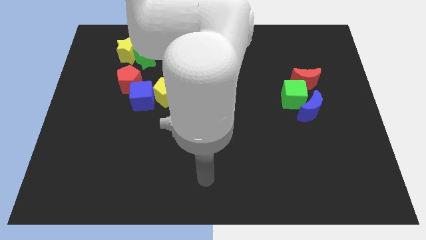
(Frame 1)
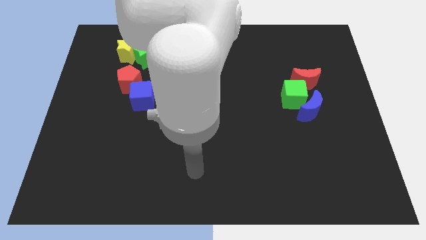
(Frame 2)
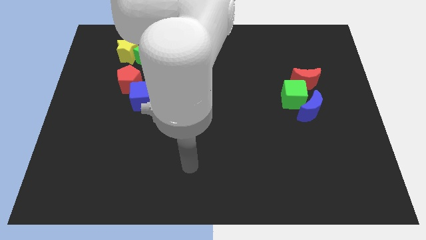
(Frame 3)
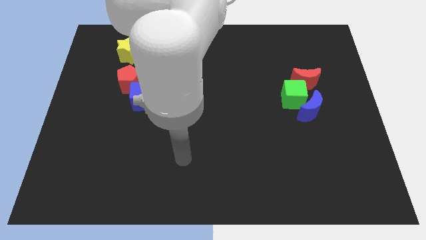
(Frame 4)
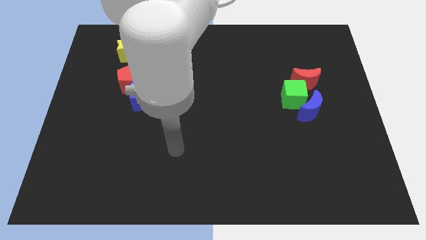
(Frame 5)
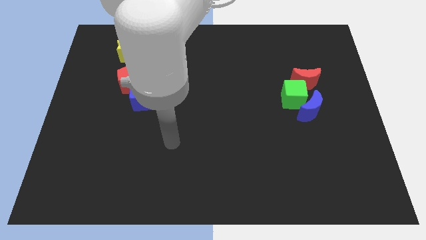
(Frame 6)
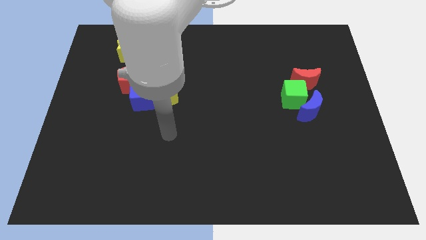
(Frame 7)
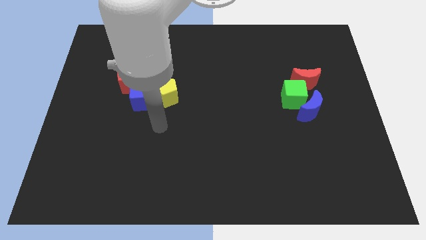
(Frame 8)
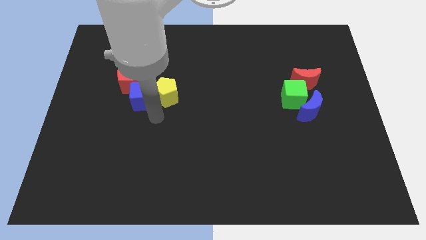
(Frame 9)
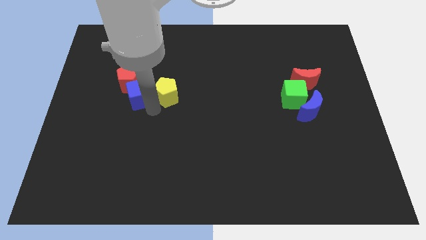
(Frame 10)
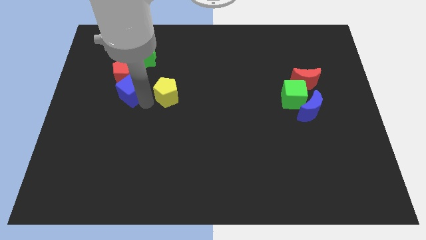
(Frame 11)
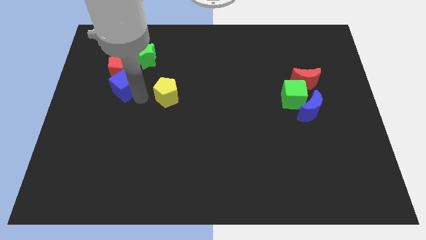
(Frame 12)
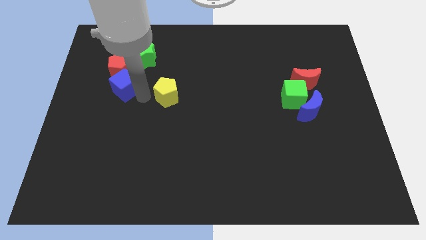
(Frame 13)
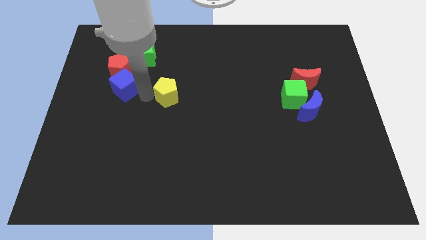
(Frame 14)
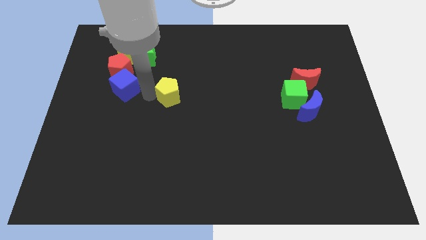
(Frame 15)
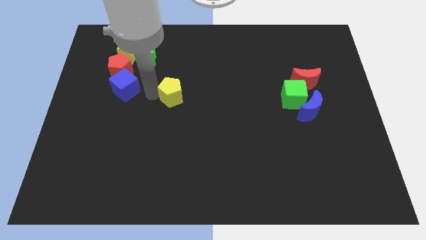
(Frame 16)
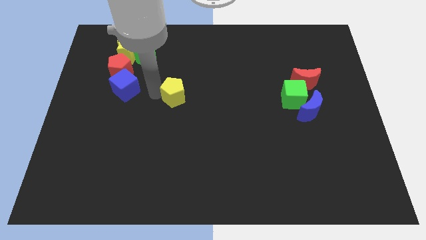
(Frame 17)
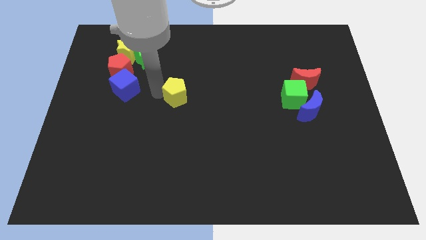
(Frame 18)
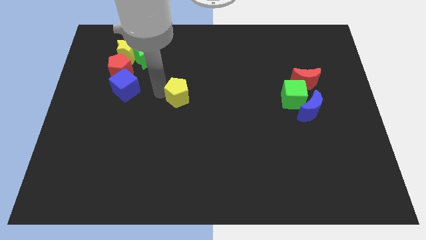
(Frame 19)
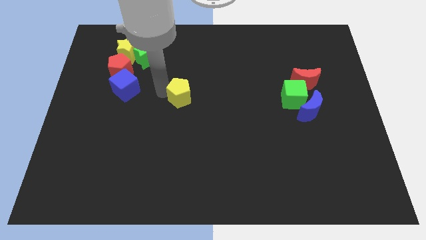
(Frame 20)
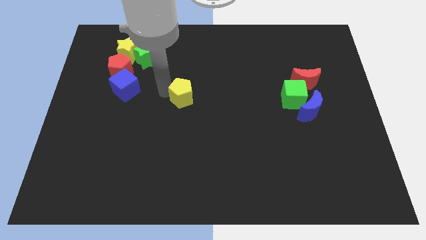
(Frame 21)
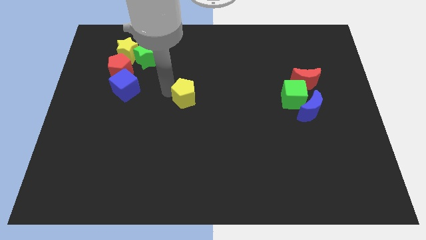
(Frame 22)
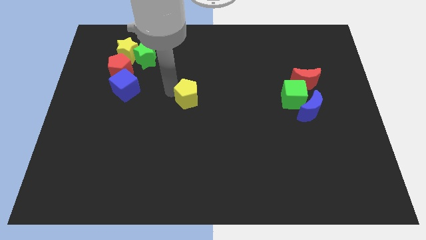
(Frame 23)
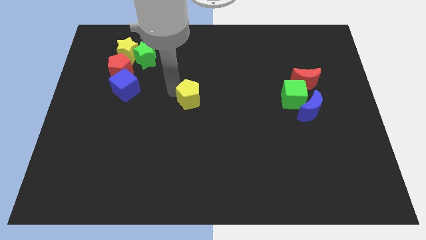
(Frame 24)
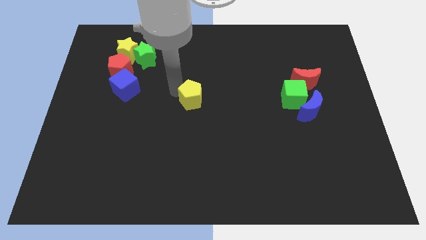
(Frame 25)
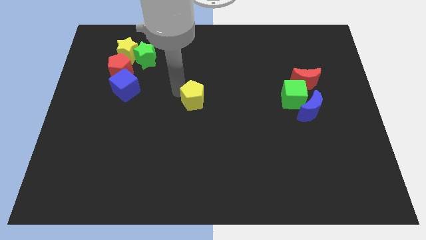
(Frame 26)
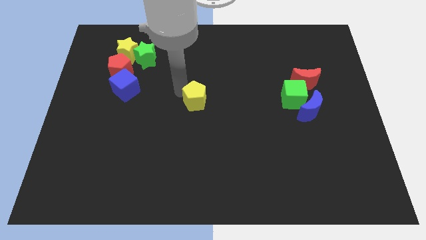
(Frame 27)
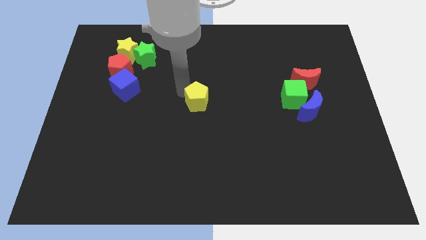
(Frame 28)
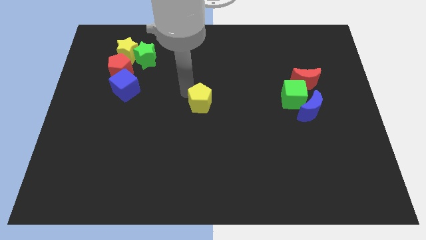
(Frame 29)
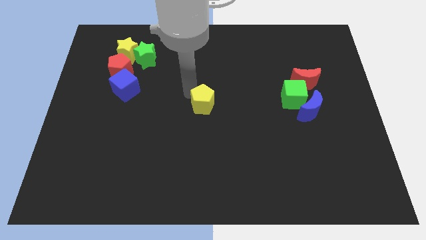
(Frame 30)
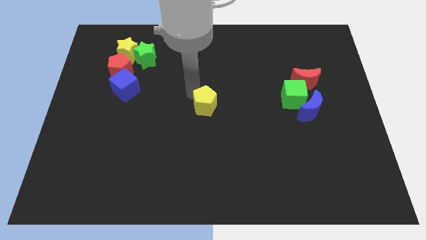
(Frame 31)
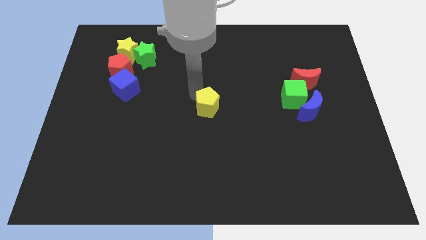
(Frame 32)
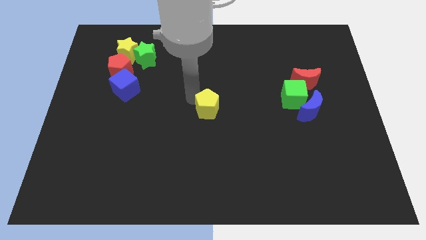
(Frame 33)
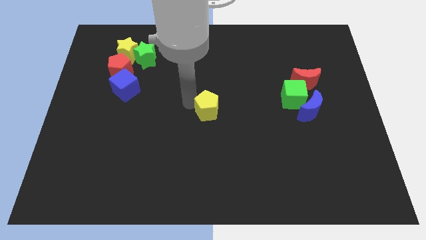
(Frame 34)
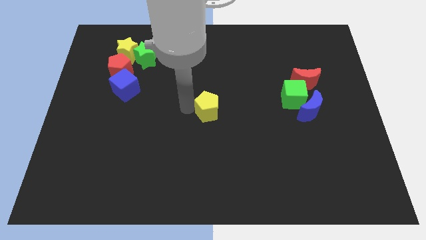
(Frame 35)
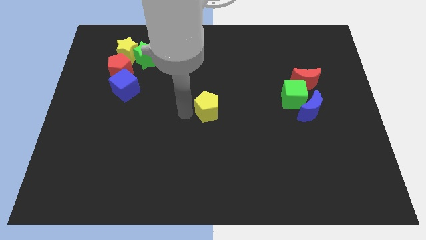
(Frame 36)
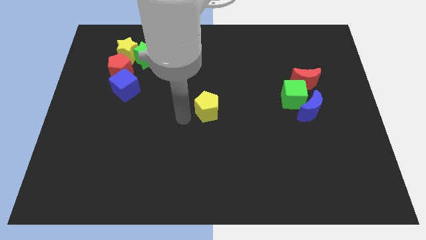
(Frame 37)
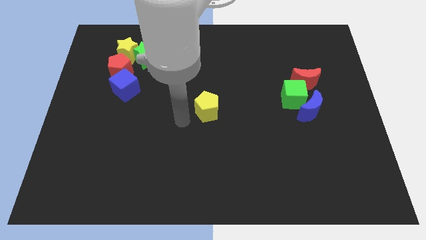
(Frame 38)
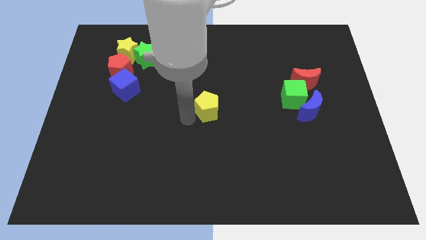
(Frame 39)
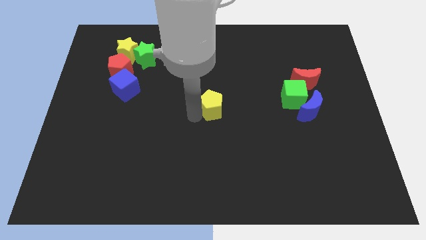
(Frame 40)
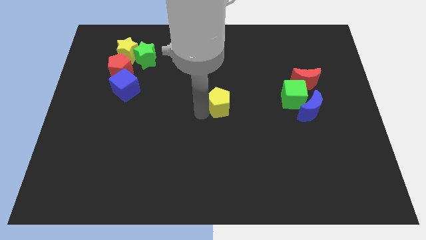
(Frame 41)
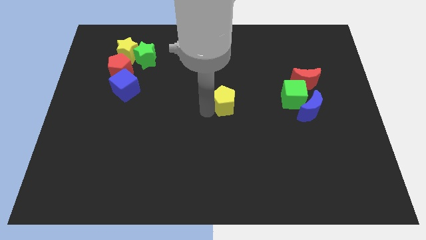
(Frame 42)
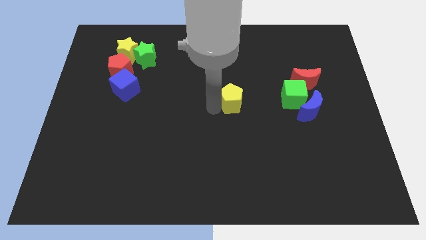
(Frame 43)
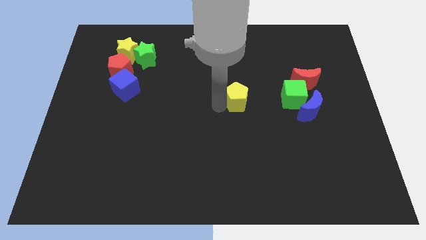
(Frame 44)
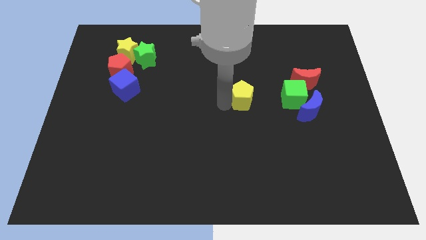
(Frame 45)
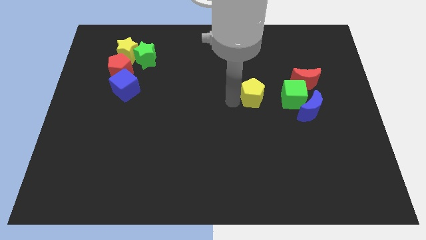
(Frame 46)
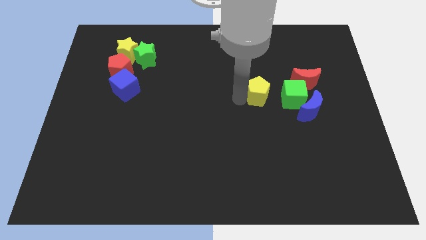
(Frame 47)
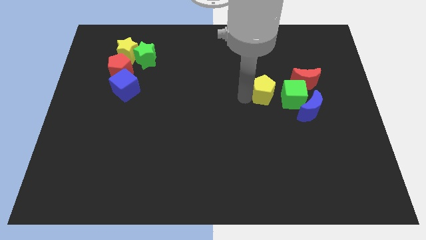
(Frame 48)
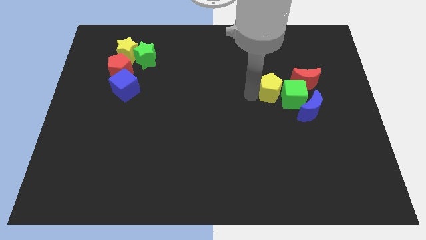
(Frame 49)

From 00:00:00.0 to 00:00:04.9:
move the yellow pentagon next to the green cube

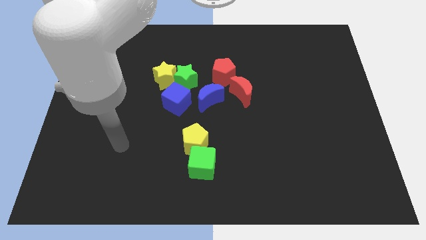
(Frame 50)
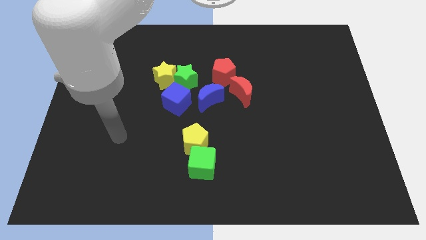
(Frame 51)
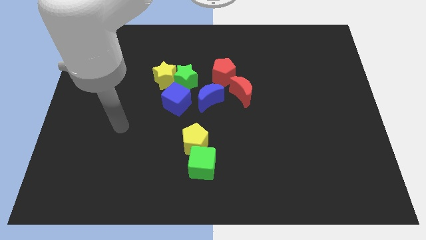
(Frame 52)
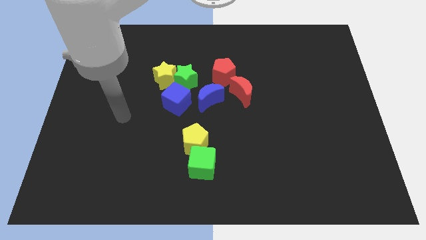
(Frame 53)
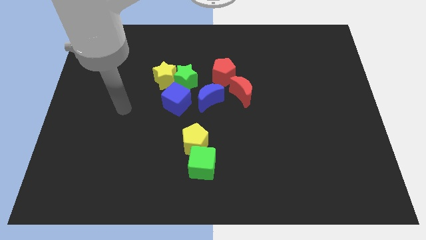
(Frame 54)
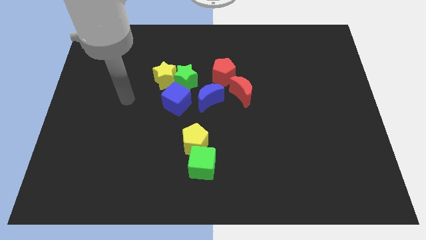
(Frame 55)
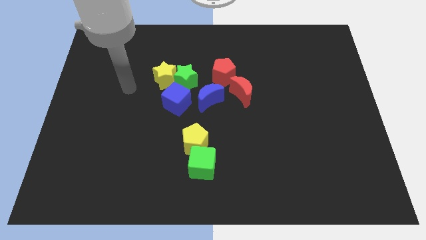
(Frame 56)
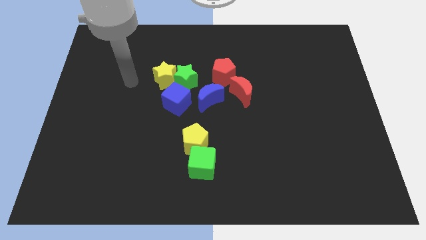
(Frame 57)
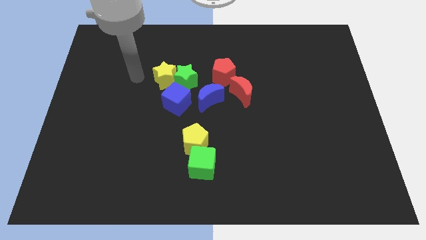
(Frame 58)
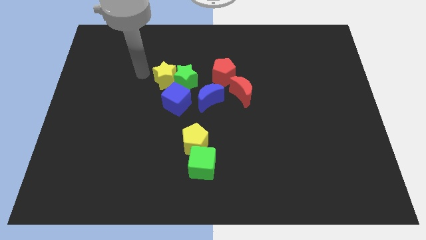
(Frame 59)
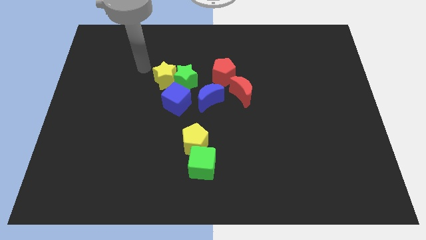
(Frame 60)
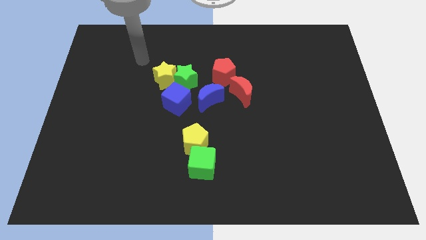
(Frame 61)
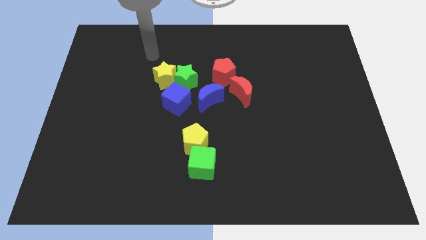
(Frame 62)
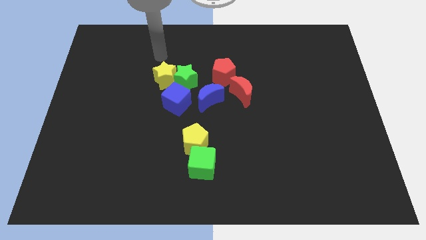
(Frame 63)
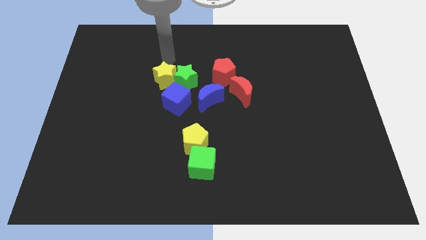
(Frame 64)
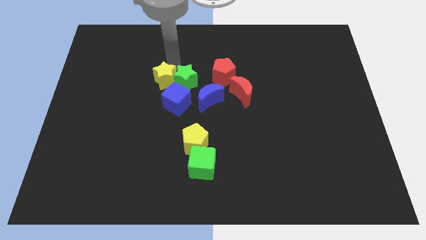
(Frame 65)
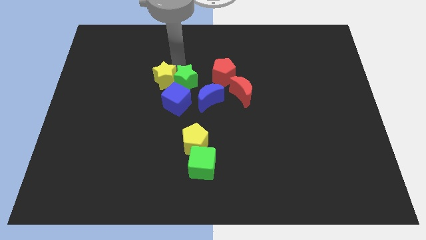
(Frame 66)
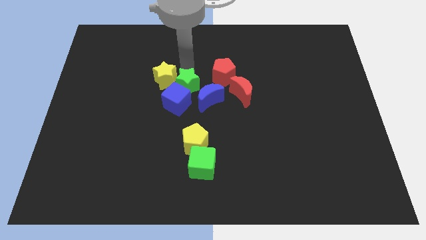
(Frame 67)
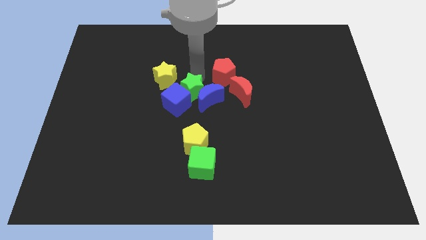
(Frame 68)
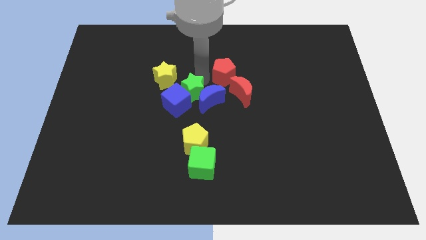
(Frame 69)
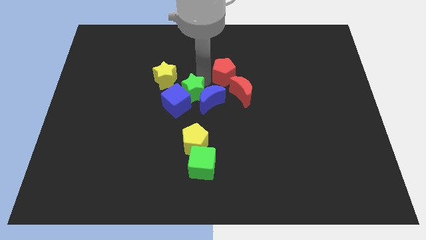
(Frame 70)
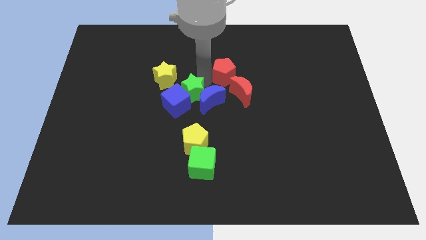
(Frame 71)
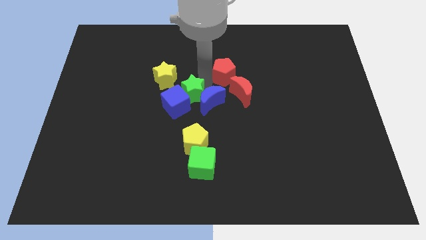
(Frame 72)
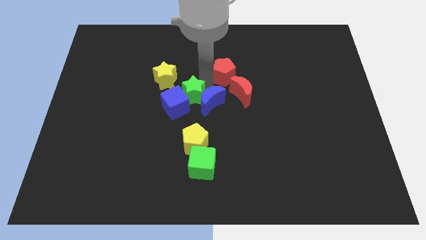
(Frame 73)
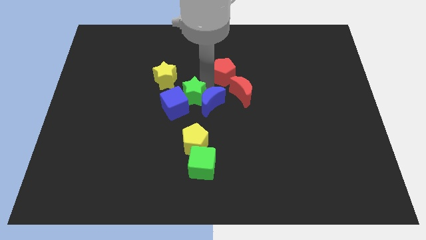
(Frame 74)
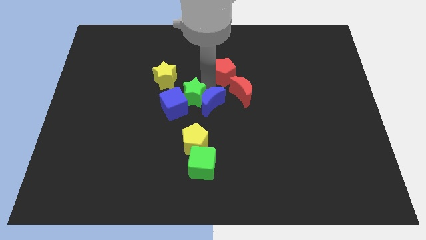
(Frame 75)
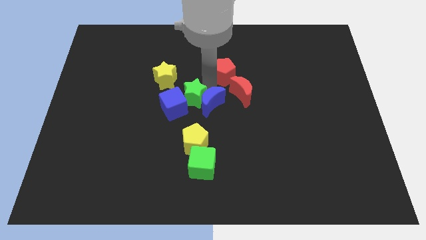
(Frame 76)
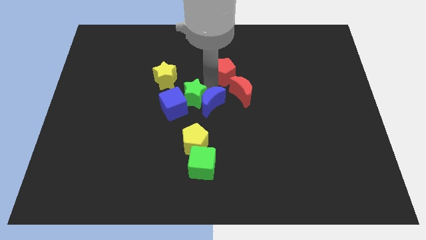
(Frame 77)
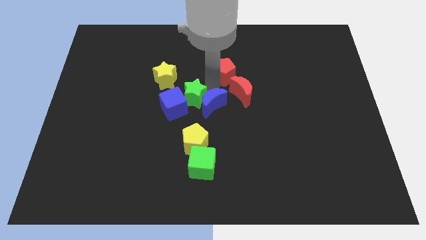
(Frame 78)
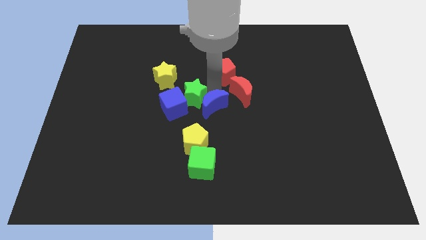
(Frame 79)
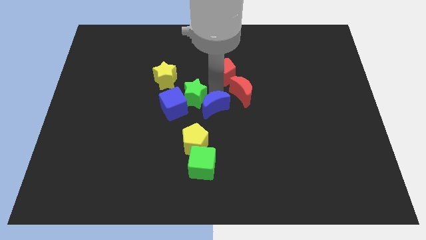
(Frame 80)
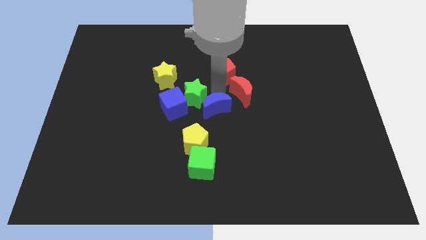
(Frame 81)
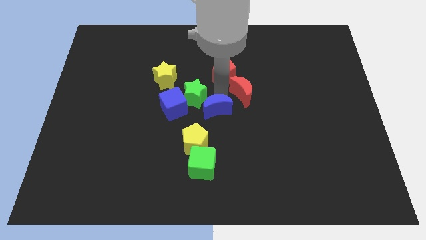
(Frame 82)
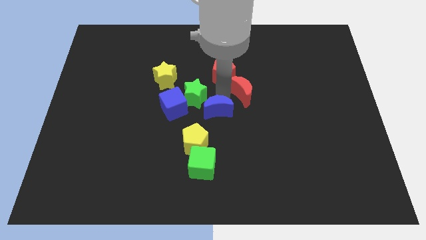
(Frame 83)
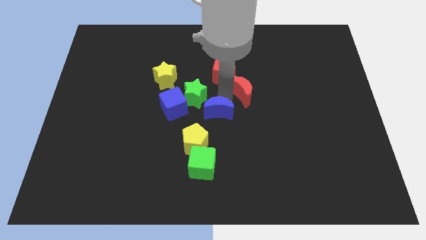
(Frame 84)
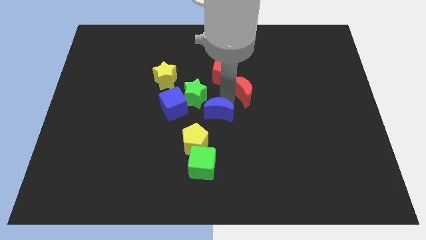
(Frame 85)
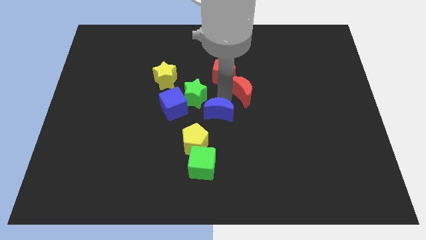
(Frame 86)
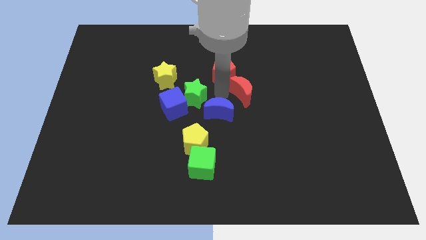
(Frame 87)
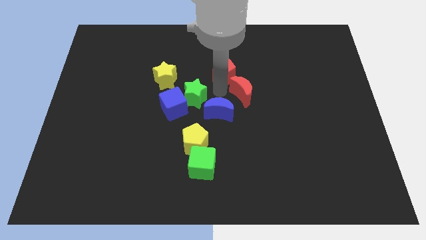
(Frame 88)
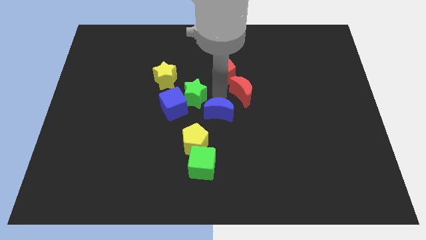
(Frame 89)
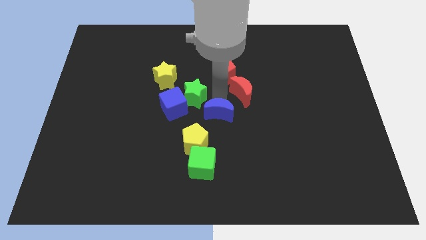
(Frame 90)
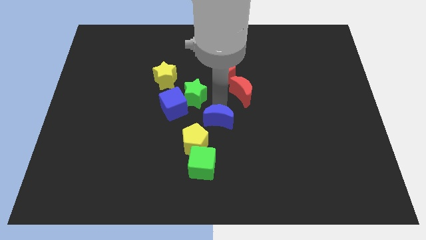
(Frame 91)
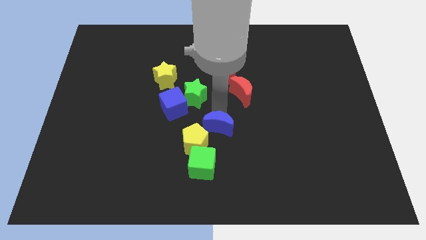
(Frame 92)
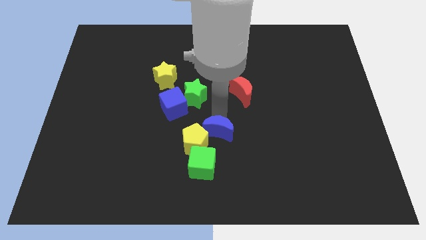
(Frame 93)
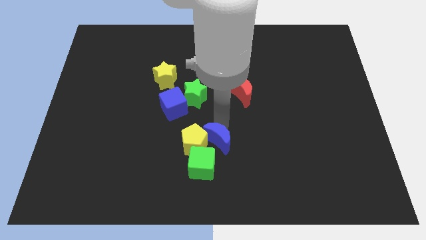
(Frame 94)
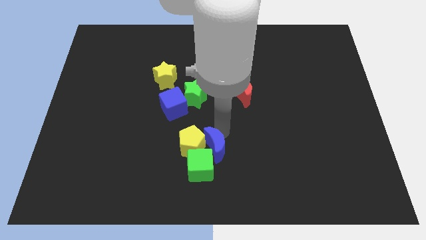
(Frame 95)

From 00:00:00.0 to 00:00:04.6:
move the blue moon towards the green cube
